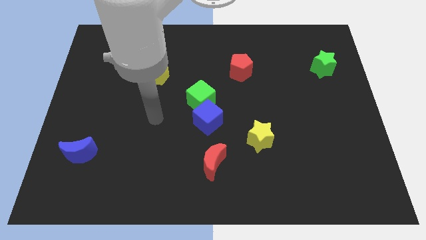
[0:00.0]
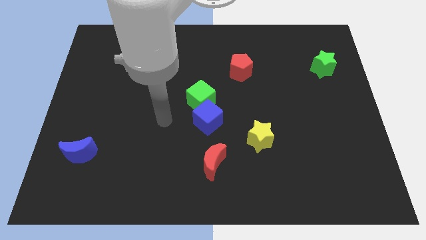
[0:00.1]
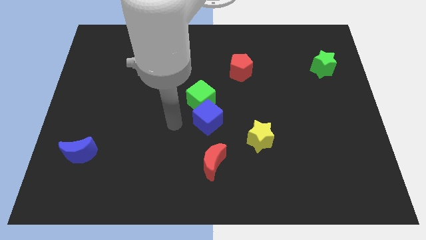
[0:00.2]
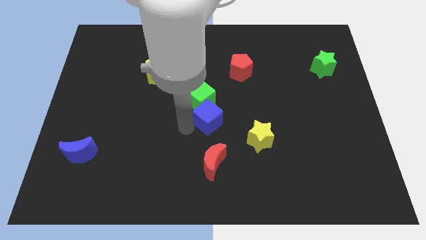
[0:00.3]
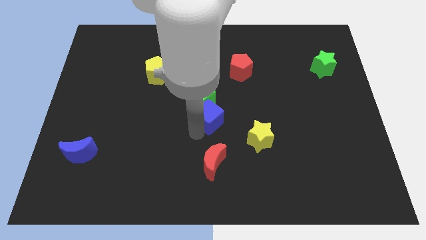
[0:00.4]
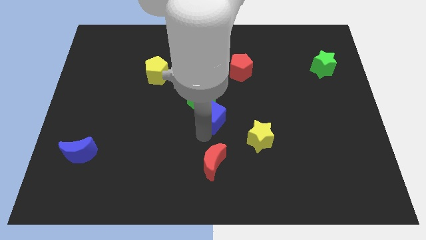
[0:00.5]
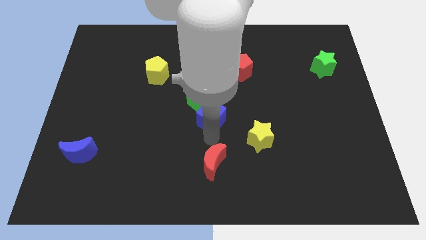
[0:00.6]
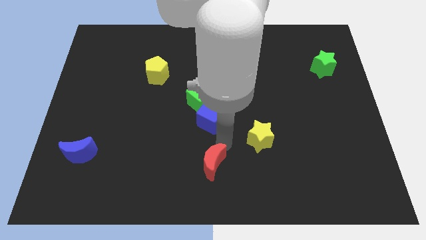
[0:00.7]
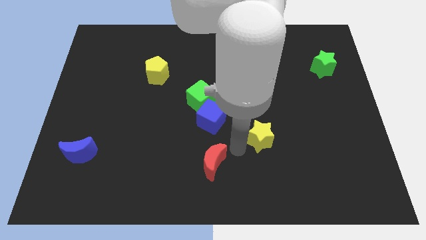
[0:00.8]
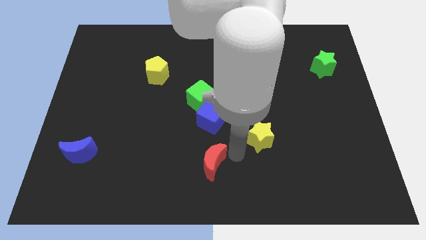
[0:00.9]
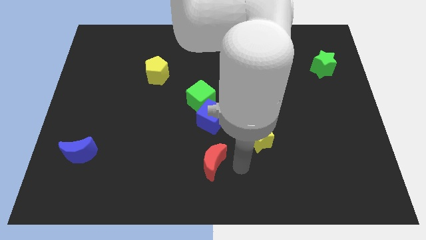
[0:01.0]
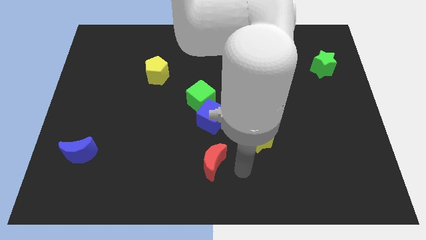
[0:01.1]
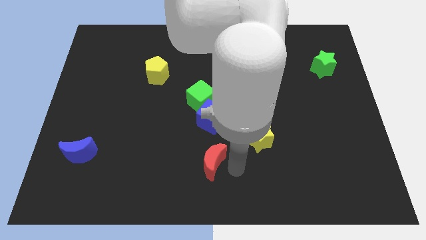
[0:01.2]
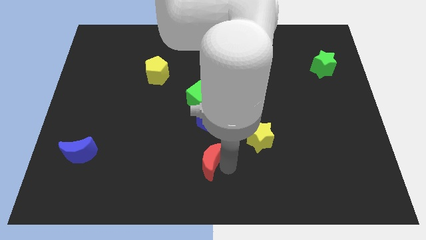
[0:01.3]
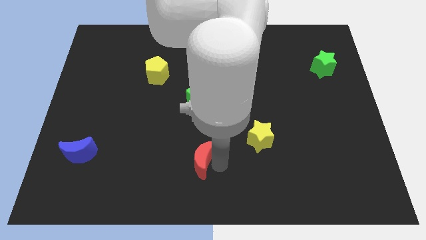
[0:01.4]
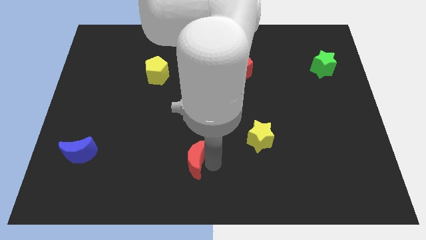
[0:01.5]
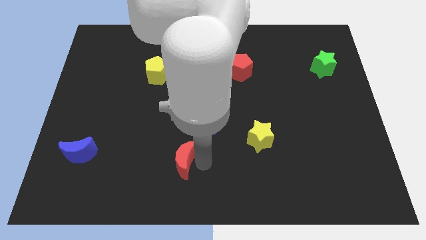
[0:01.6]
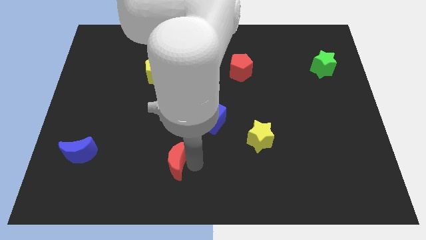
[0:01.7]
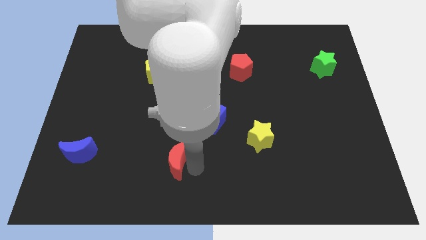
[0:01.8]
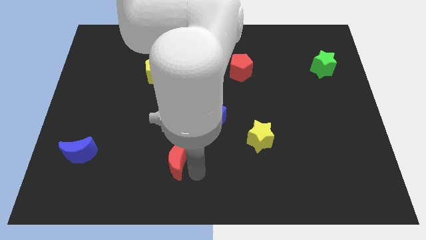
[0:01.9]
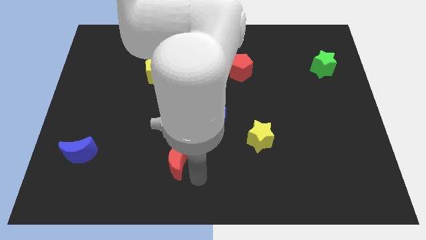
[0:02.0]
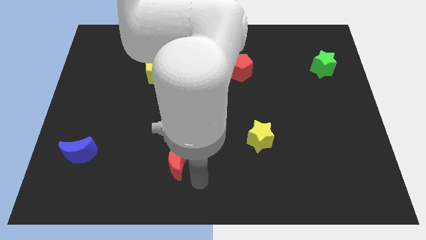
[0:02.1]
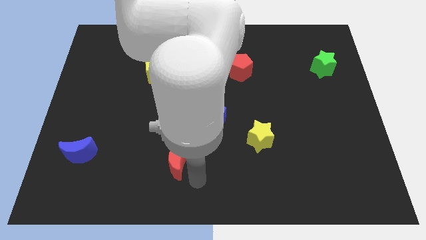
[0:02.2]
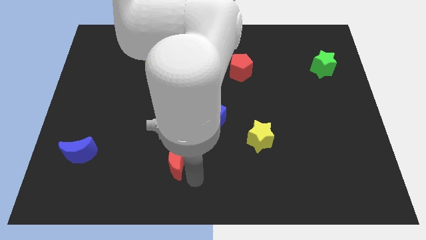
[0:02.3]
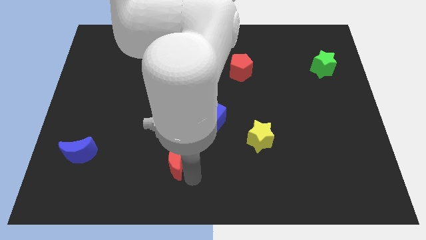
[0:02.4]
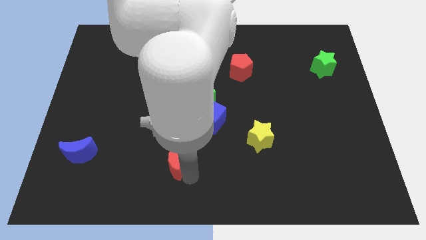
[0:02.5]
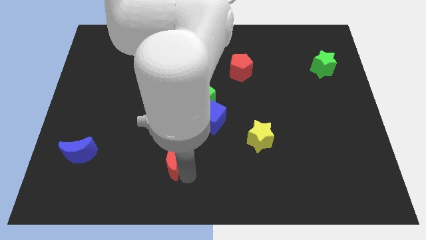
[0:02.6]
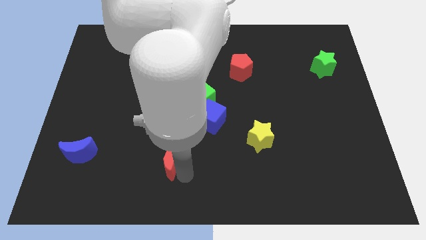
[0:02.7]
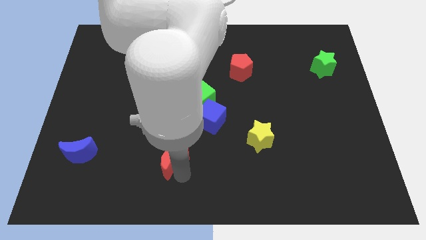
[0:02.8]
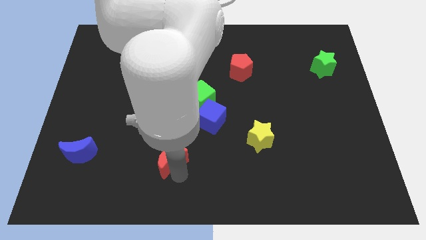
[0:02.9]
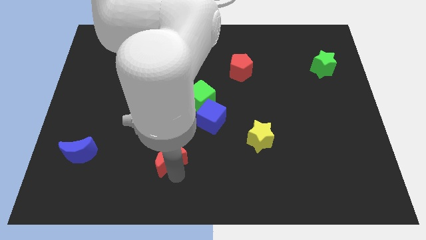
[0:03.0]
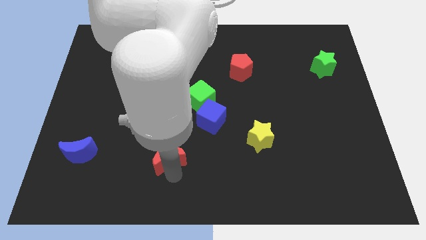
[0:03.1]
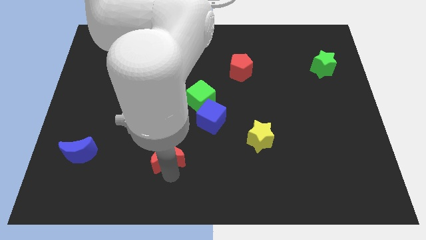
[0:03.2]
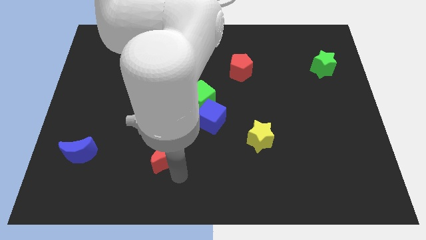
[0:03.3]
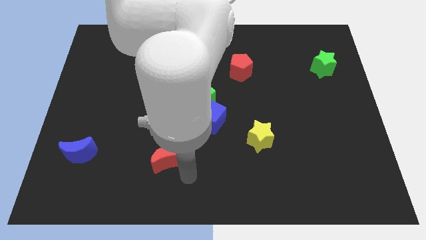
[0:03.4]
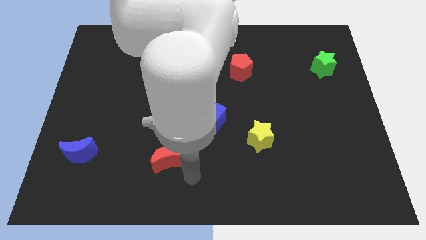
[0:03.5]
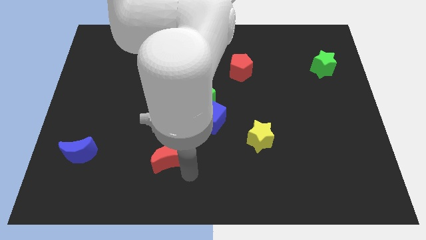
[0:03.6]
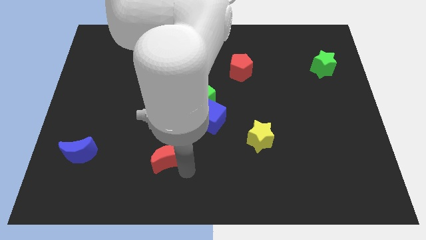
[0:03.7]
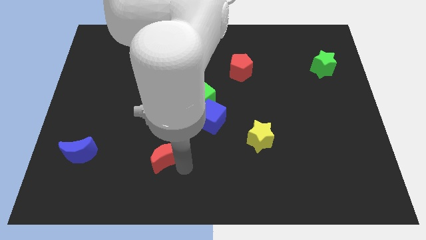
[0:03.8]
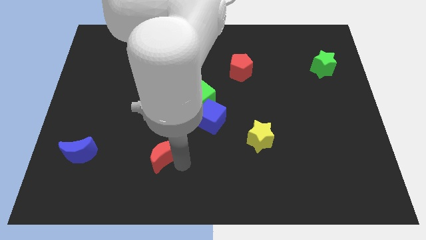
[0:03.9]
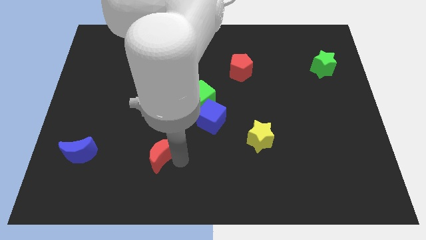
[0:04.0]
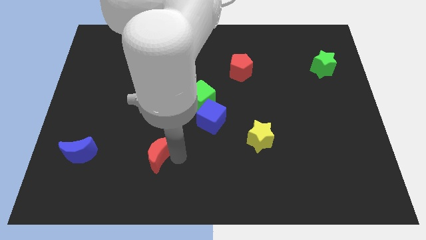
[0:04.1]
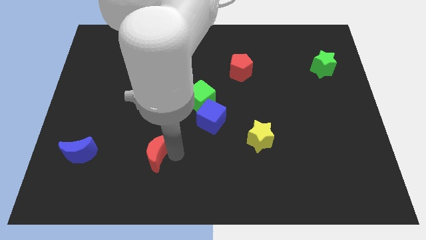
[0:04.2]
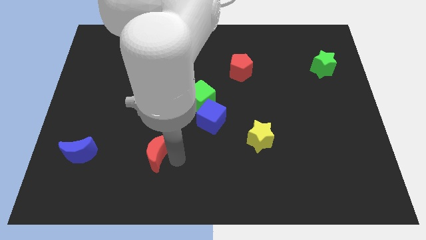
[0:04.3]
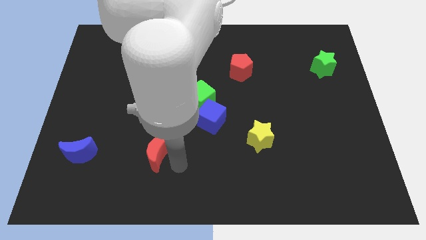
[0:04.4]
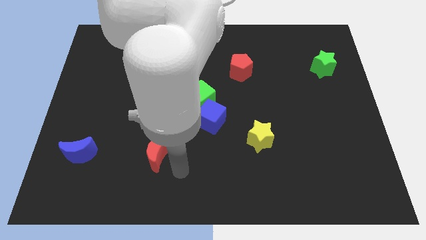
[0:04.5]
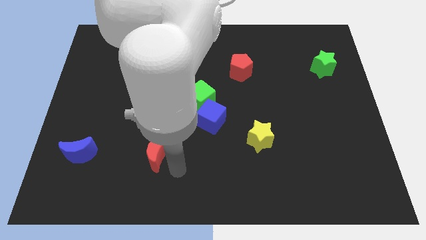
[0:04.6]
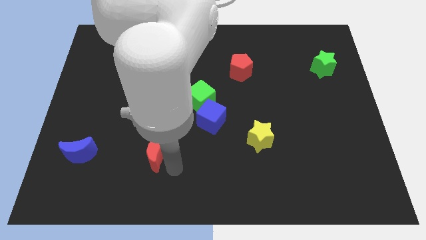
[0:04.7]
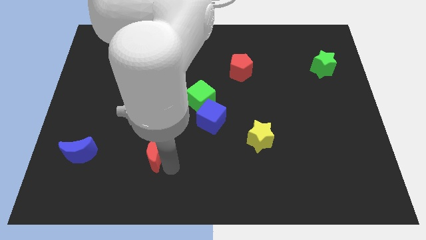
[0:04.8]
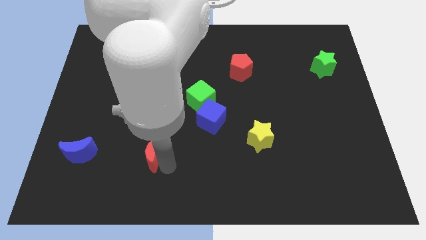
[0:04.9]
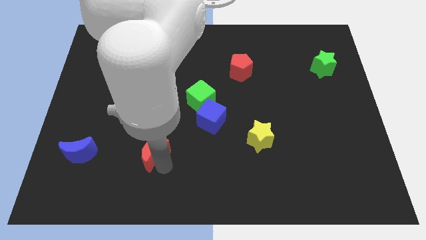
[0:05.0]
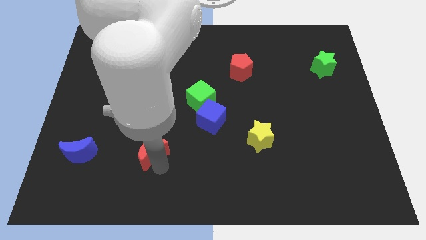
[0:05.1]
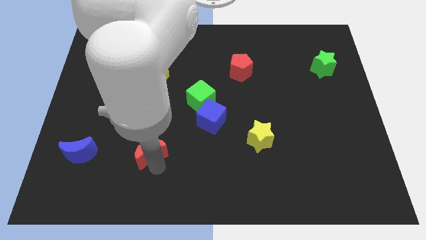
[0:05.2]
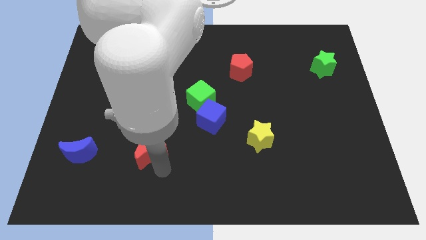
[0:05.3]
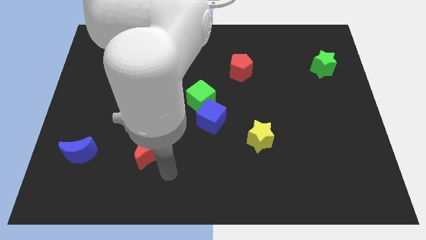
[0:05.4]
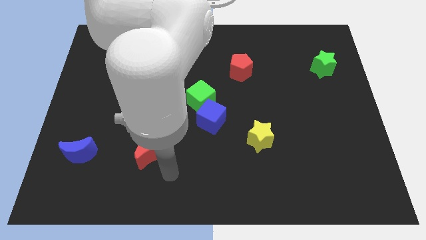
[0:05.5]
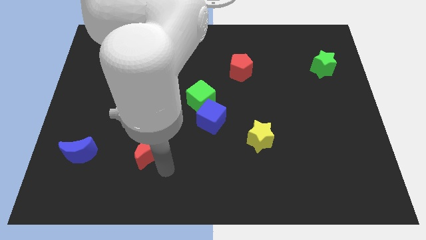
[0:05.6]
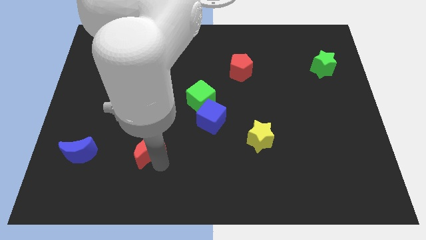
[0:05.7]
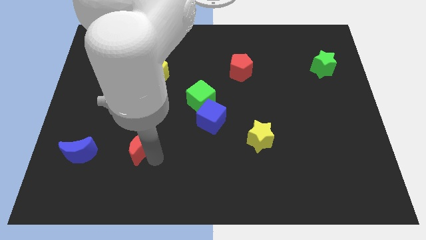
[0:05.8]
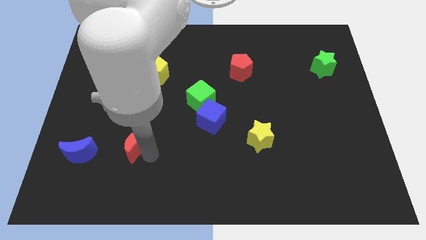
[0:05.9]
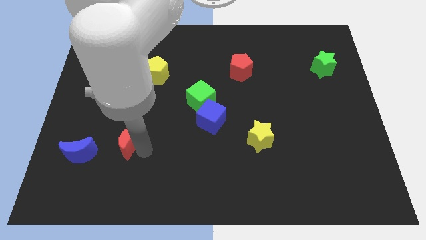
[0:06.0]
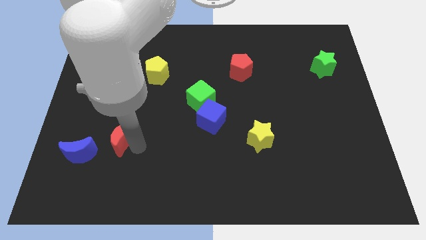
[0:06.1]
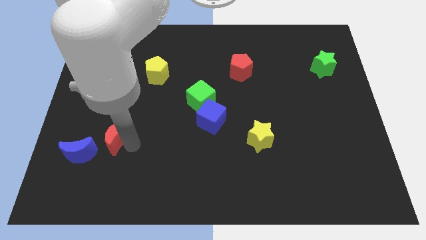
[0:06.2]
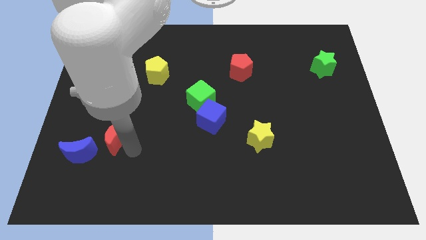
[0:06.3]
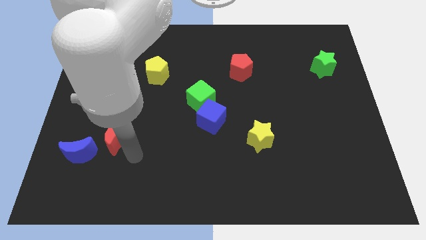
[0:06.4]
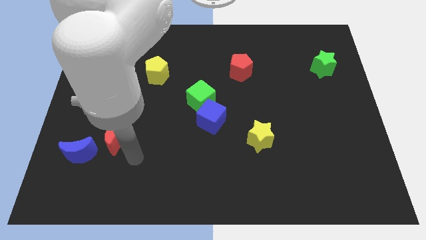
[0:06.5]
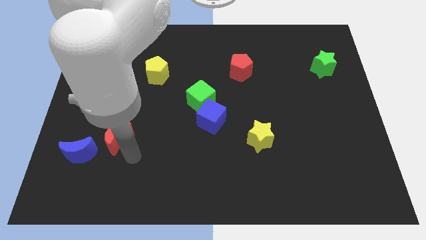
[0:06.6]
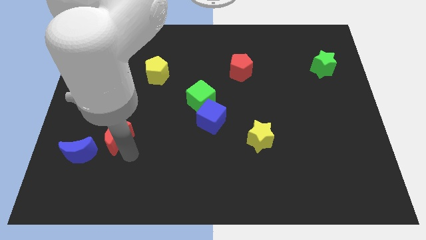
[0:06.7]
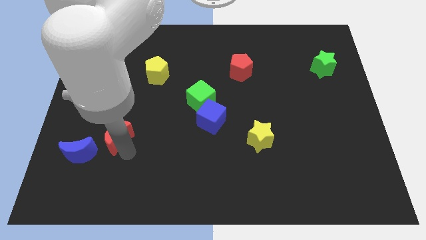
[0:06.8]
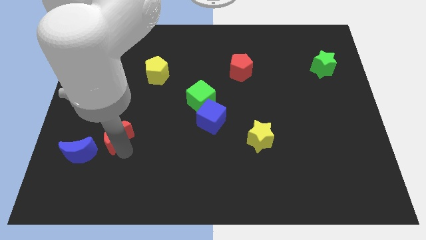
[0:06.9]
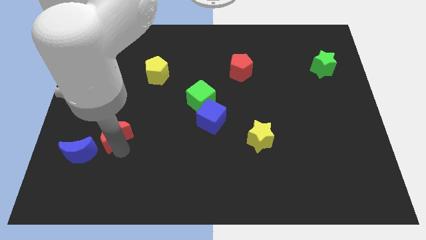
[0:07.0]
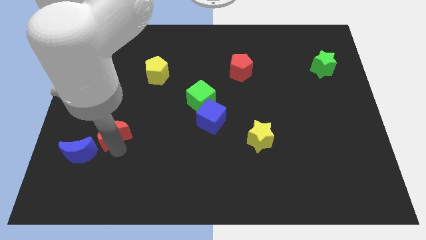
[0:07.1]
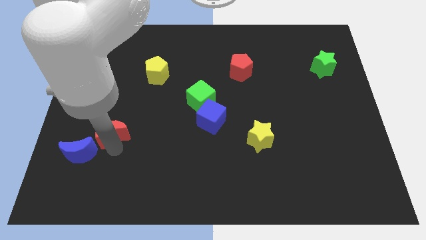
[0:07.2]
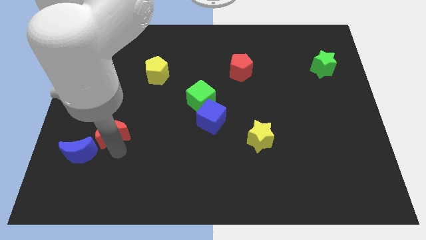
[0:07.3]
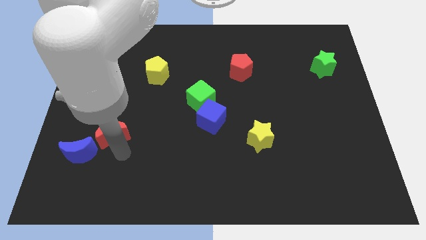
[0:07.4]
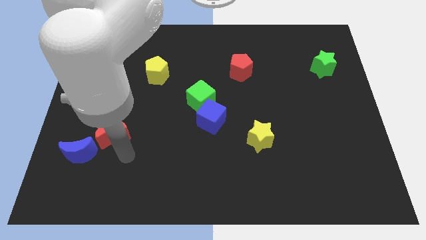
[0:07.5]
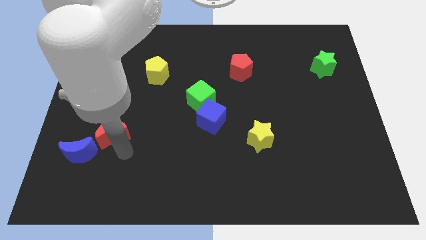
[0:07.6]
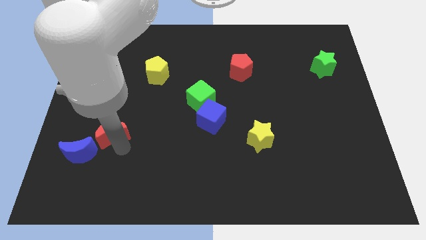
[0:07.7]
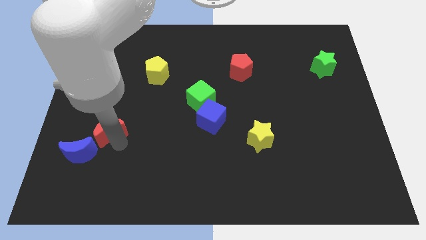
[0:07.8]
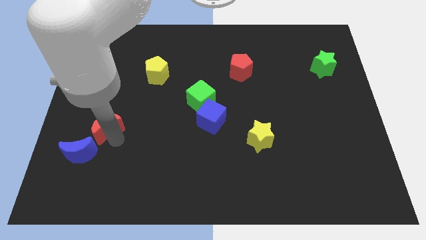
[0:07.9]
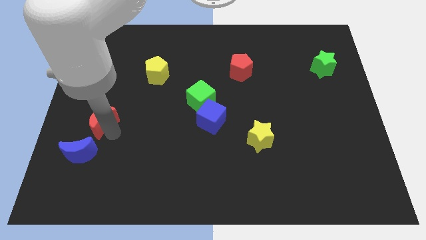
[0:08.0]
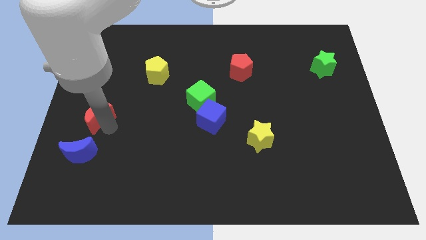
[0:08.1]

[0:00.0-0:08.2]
slide the red moon to the left side of the board
